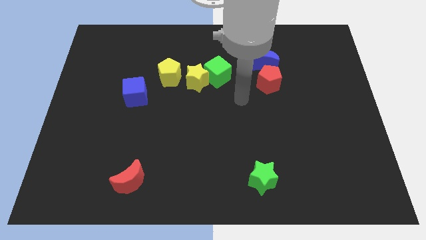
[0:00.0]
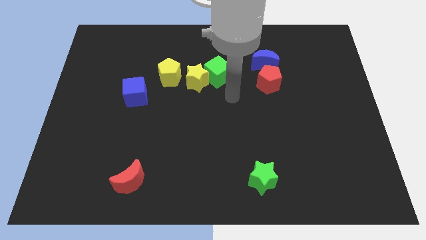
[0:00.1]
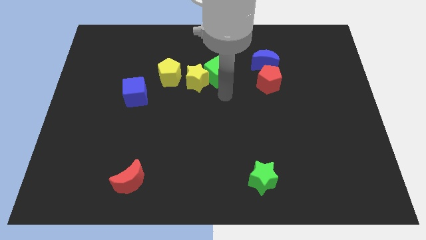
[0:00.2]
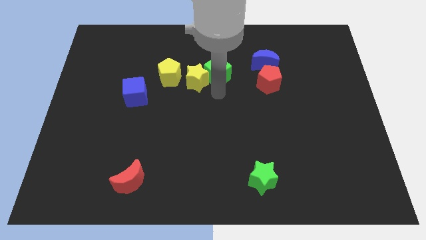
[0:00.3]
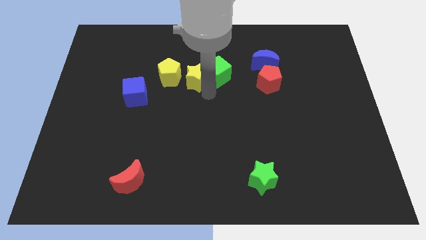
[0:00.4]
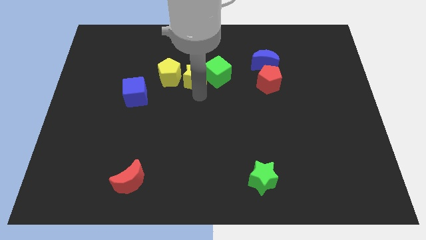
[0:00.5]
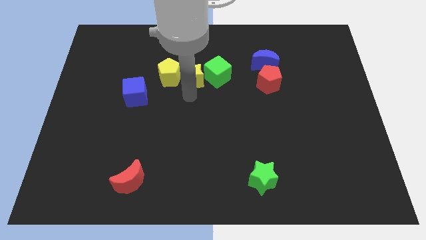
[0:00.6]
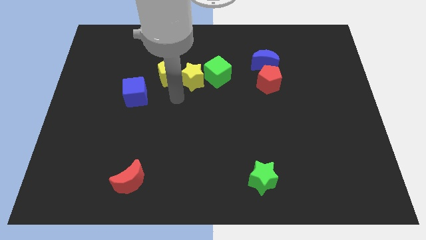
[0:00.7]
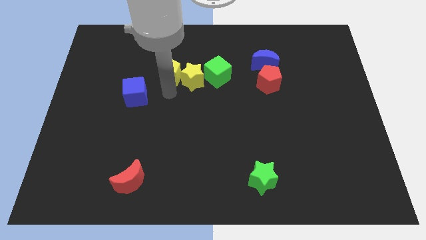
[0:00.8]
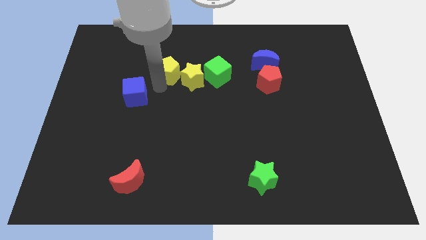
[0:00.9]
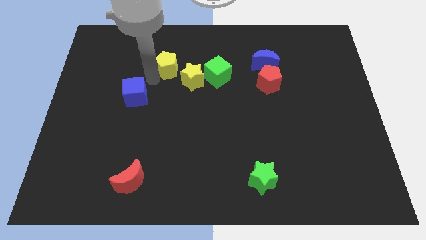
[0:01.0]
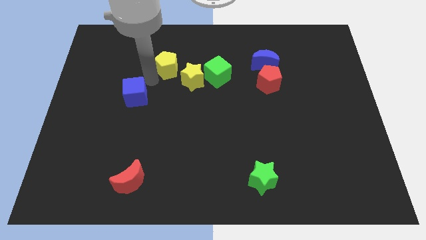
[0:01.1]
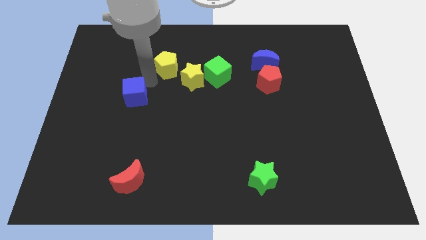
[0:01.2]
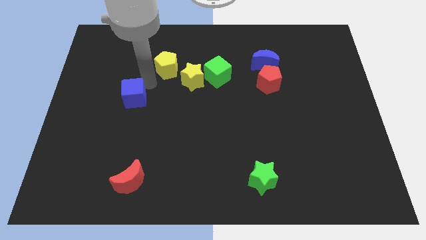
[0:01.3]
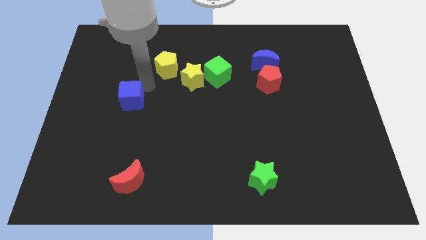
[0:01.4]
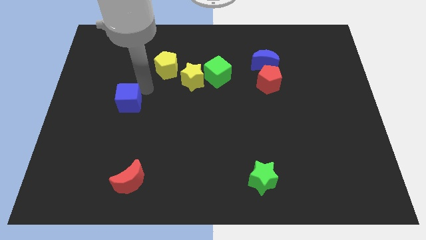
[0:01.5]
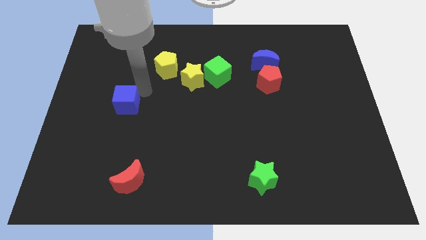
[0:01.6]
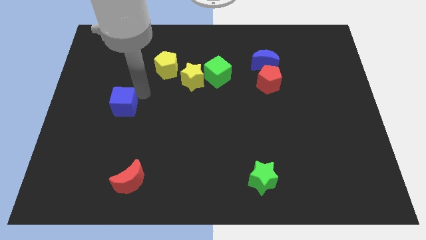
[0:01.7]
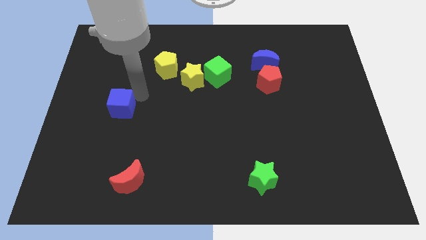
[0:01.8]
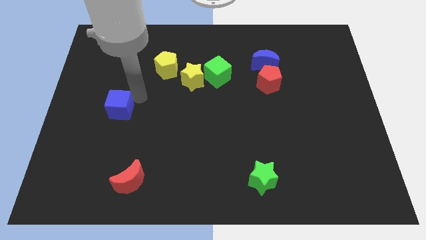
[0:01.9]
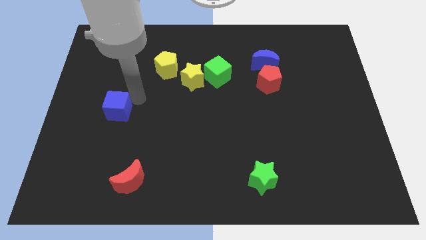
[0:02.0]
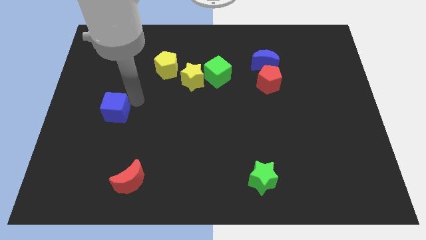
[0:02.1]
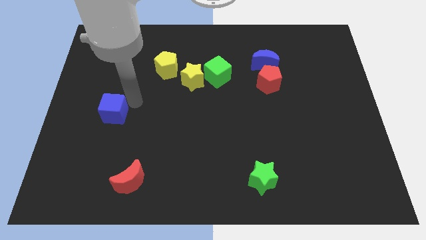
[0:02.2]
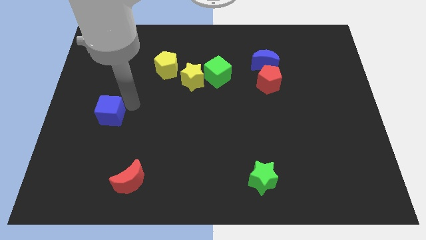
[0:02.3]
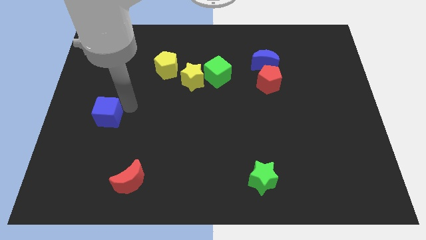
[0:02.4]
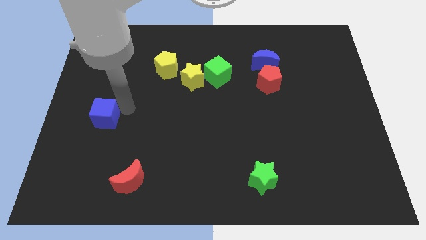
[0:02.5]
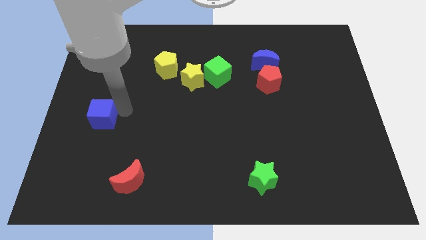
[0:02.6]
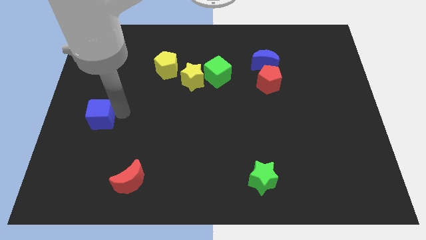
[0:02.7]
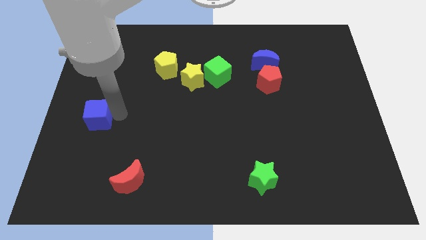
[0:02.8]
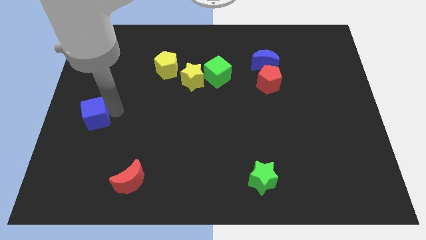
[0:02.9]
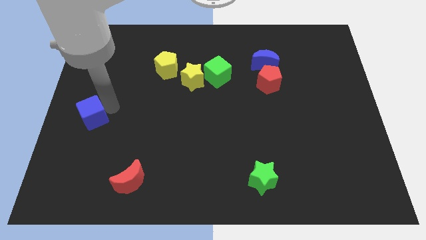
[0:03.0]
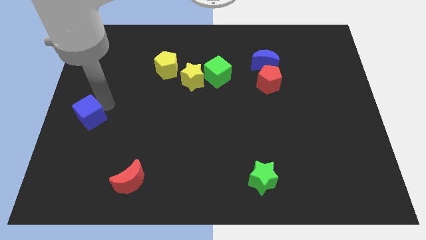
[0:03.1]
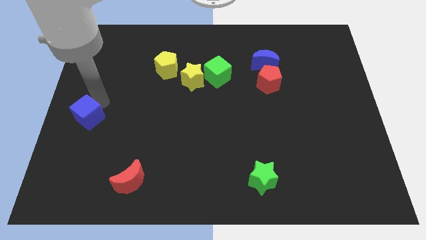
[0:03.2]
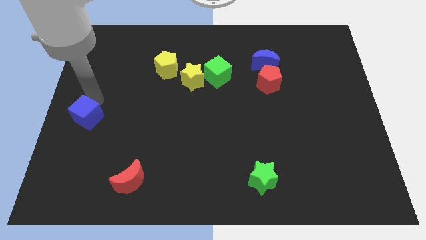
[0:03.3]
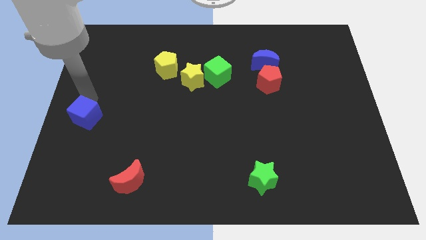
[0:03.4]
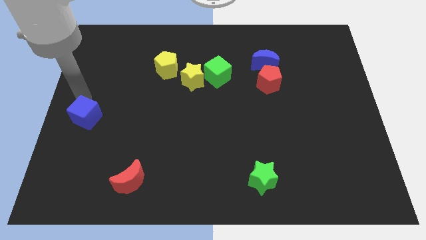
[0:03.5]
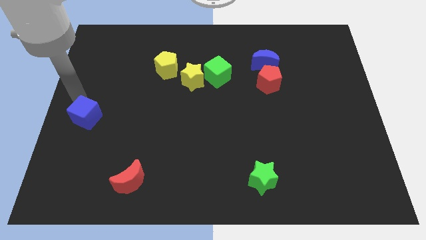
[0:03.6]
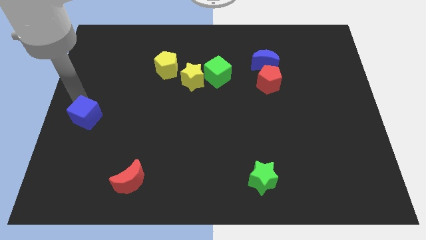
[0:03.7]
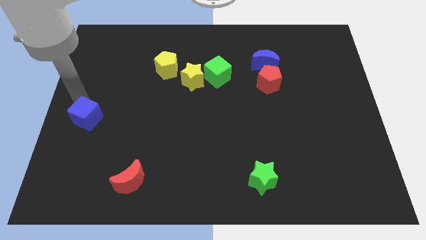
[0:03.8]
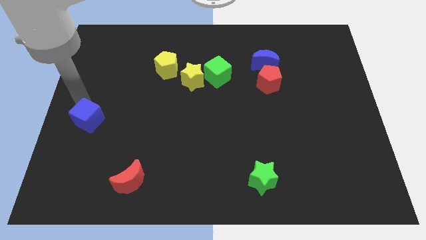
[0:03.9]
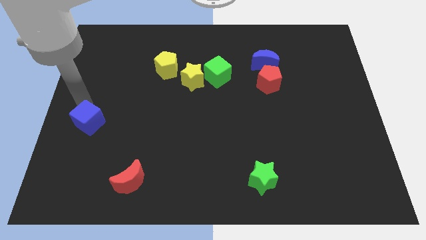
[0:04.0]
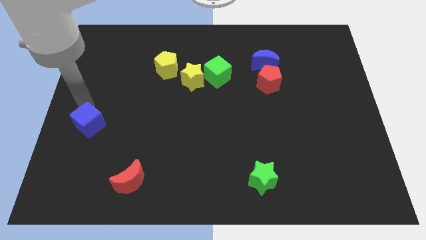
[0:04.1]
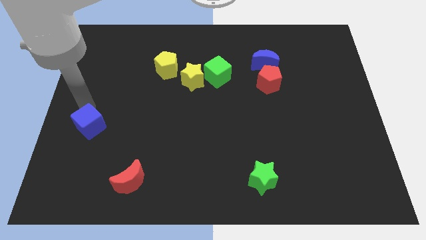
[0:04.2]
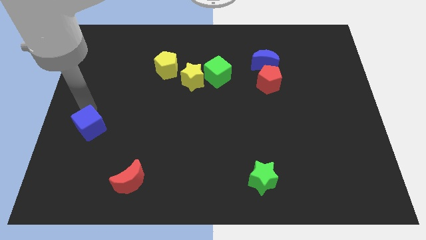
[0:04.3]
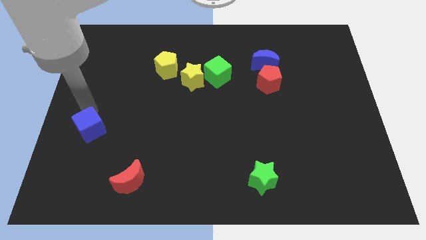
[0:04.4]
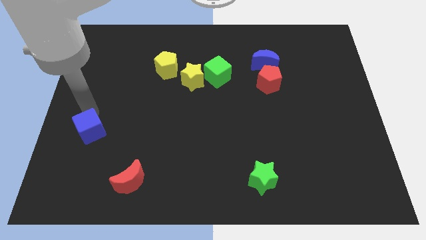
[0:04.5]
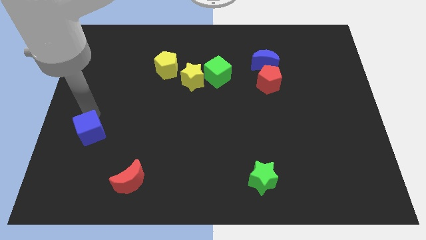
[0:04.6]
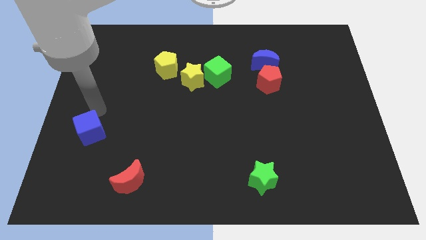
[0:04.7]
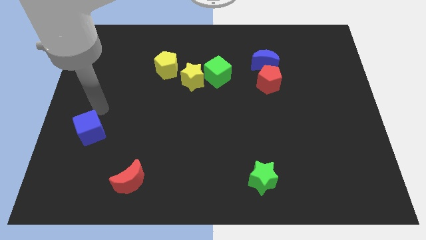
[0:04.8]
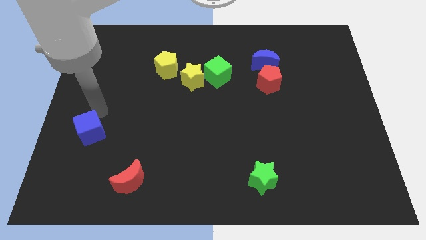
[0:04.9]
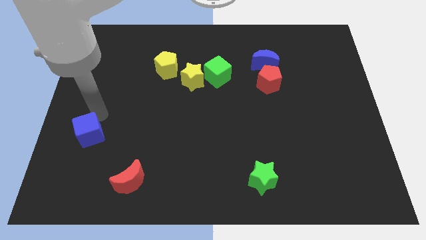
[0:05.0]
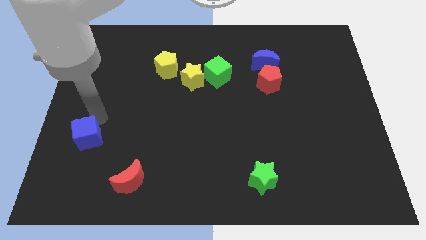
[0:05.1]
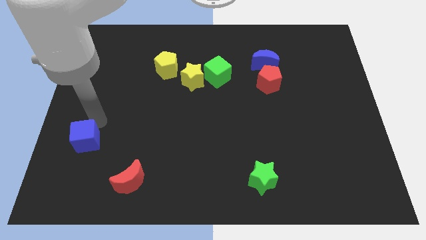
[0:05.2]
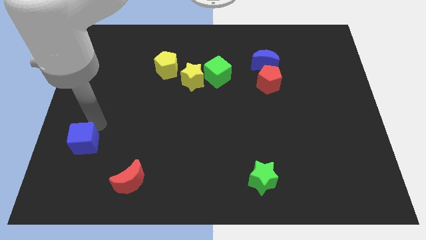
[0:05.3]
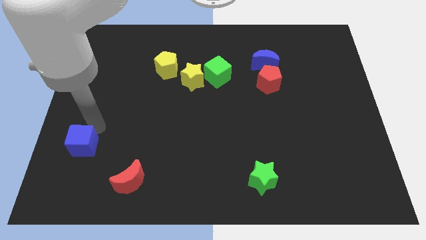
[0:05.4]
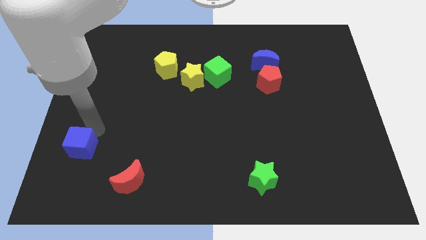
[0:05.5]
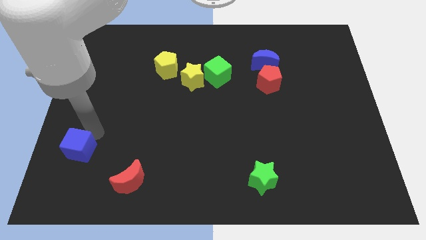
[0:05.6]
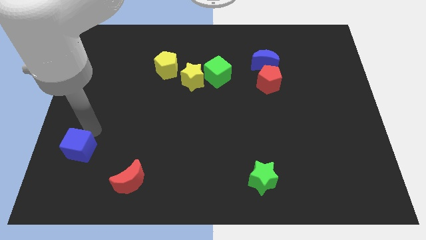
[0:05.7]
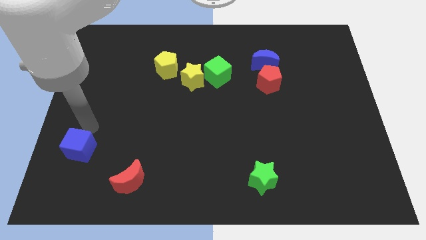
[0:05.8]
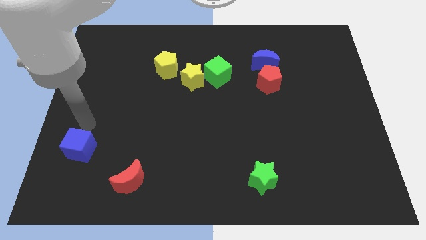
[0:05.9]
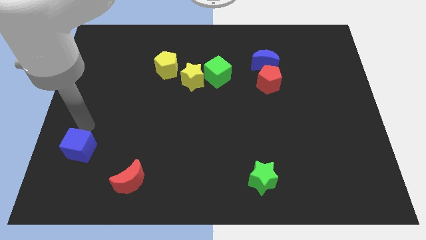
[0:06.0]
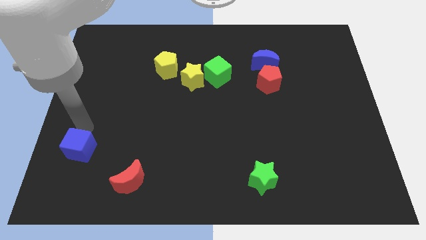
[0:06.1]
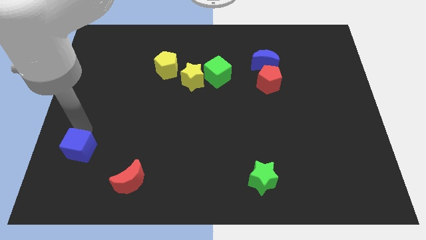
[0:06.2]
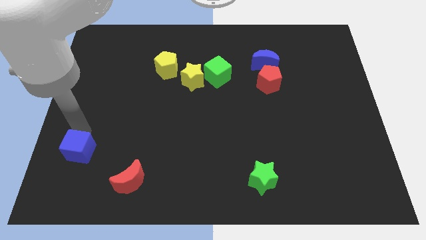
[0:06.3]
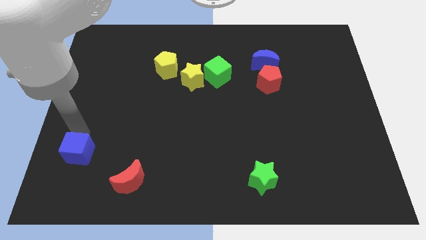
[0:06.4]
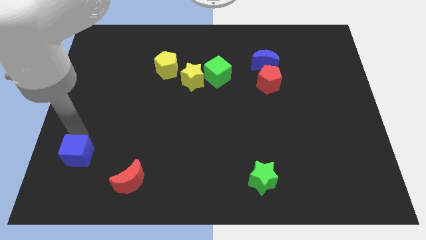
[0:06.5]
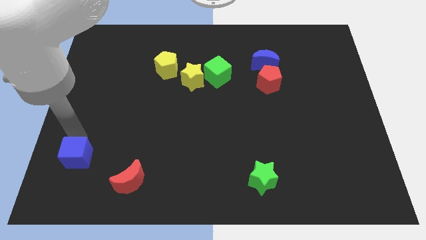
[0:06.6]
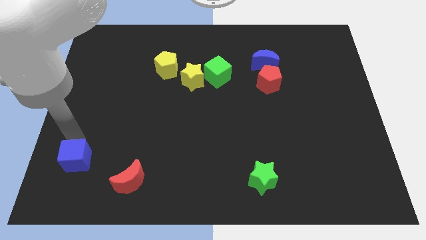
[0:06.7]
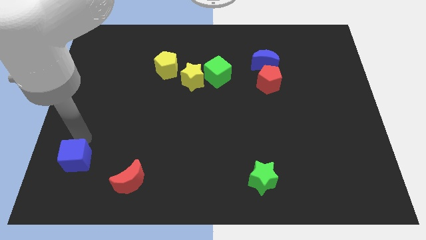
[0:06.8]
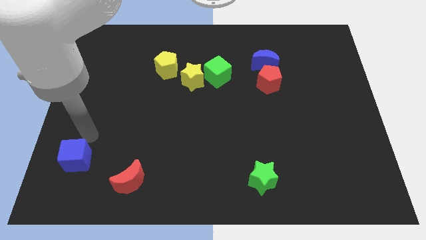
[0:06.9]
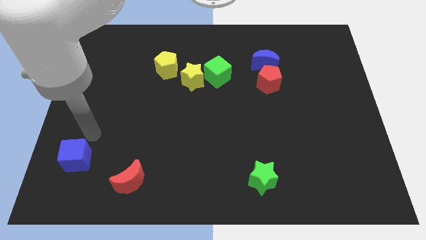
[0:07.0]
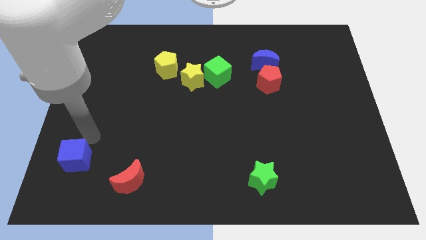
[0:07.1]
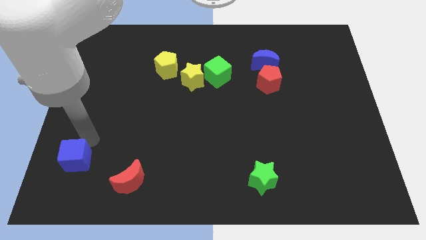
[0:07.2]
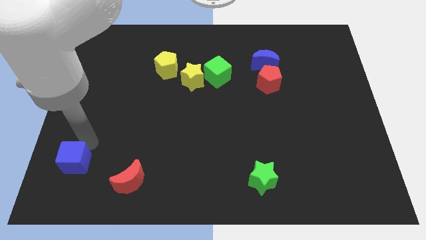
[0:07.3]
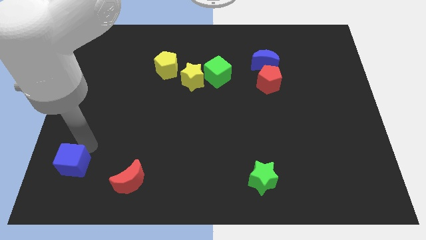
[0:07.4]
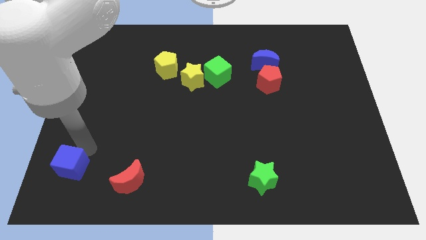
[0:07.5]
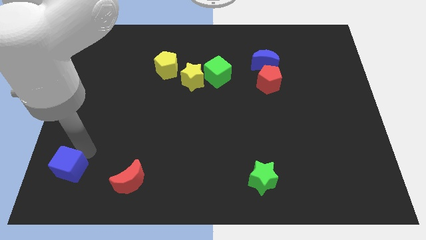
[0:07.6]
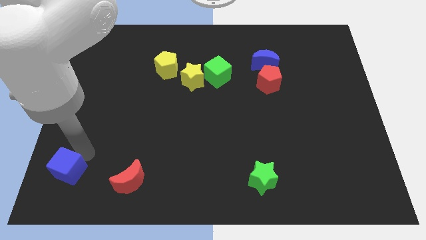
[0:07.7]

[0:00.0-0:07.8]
slide the blue cube to the bottom left
